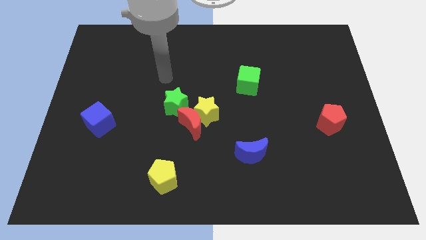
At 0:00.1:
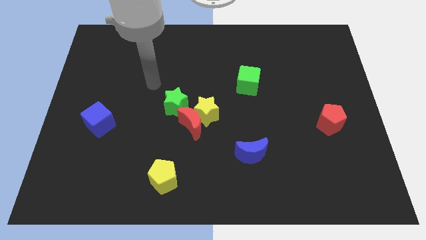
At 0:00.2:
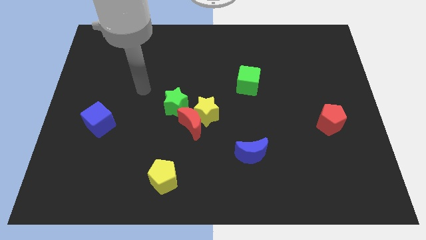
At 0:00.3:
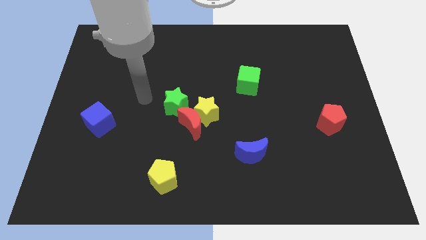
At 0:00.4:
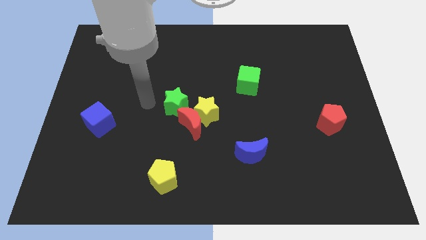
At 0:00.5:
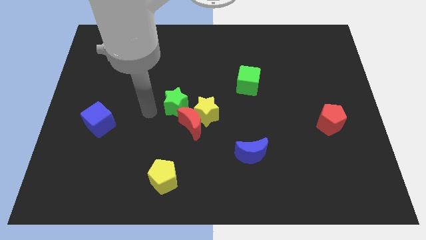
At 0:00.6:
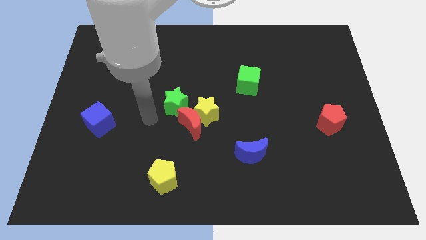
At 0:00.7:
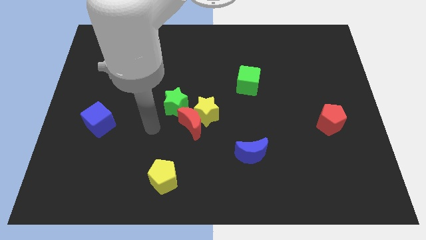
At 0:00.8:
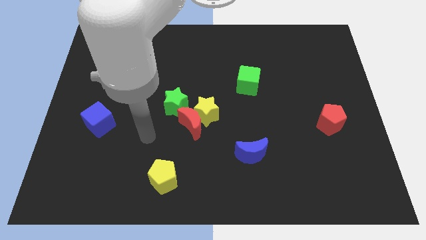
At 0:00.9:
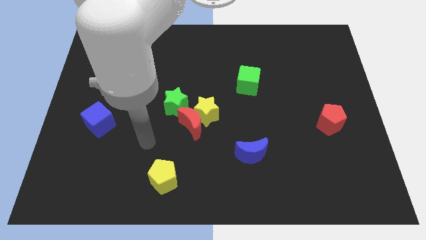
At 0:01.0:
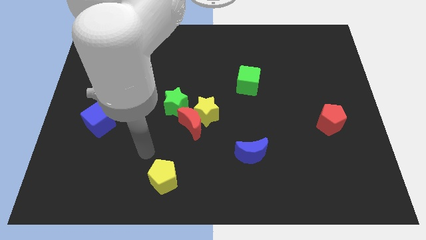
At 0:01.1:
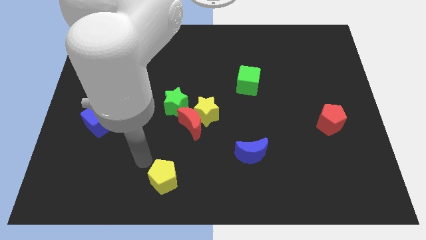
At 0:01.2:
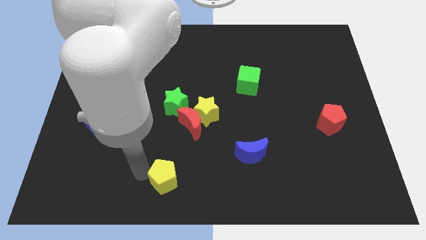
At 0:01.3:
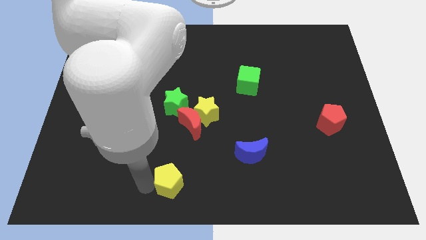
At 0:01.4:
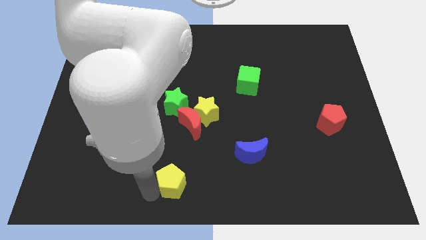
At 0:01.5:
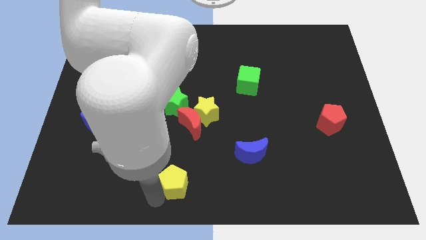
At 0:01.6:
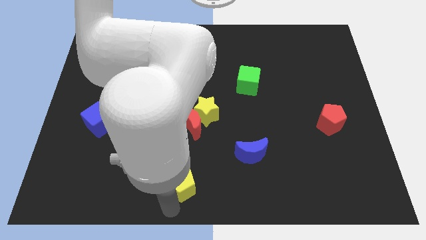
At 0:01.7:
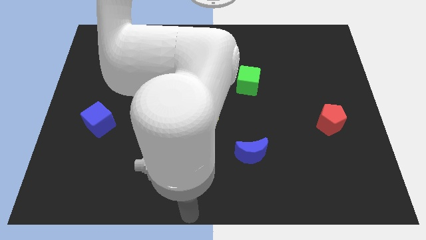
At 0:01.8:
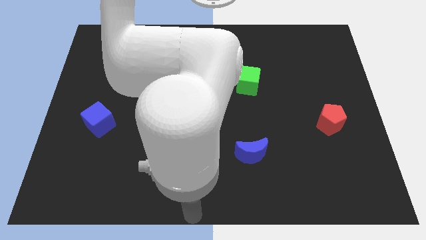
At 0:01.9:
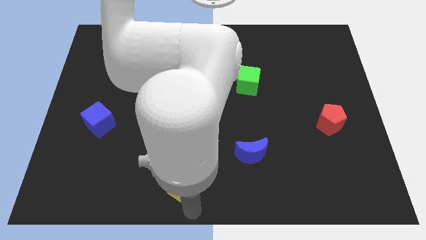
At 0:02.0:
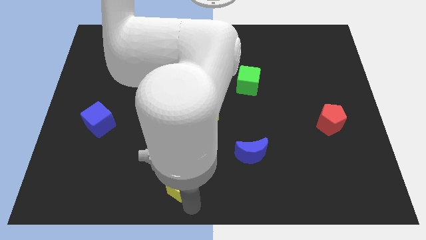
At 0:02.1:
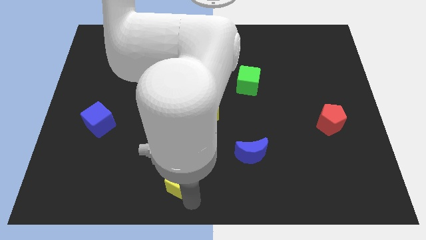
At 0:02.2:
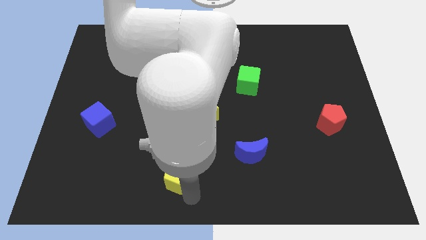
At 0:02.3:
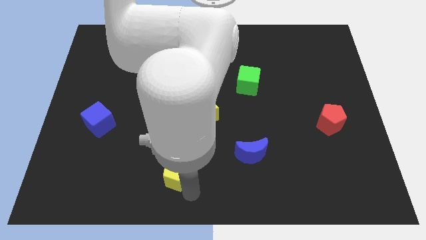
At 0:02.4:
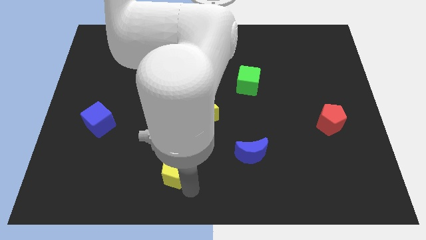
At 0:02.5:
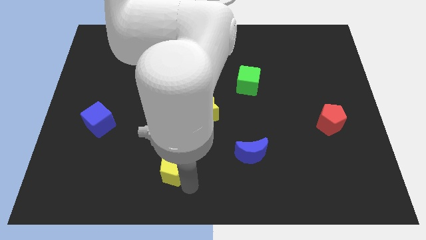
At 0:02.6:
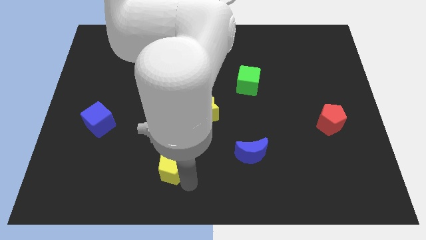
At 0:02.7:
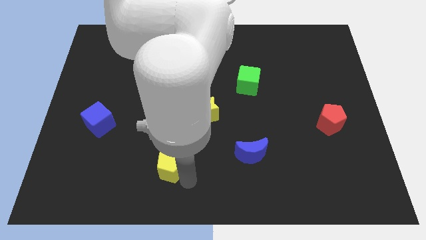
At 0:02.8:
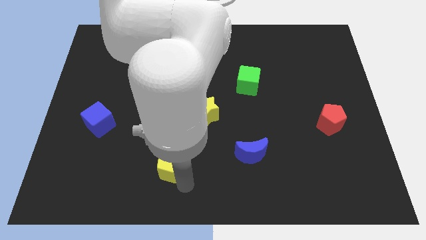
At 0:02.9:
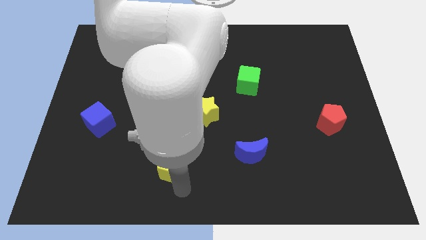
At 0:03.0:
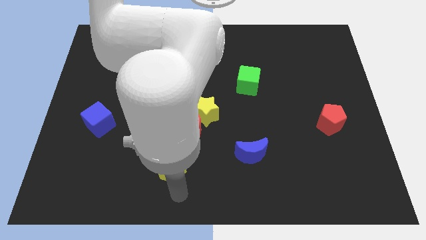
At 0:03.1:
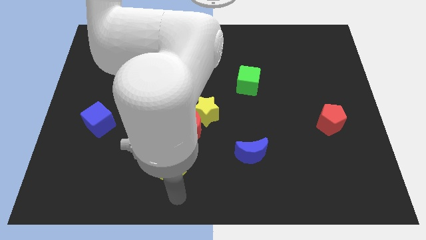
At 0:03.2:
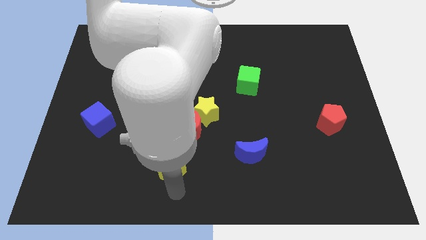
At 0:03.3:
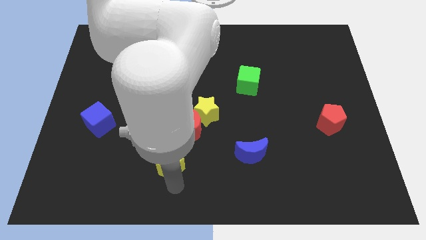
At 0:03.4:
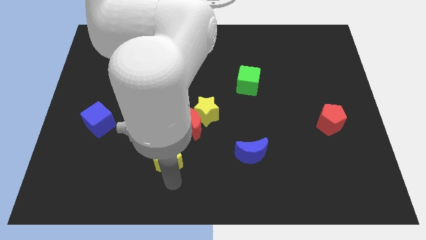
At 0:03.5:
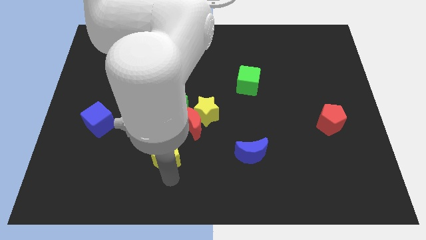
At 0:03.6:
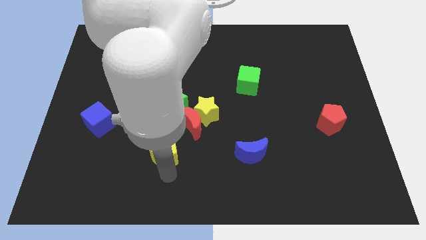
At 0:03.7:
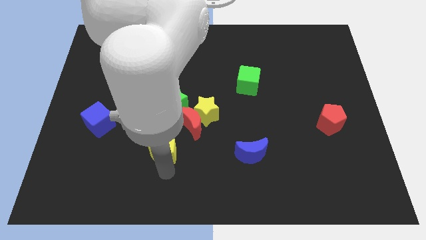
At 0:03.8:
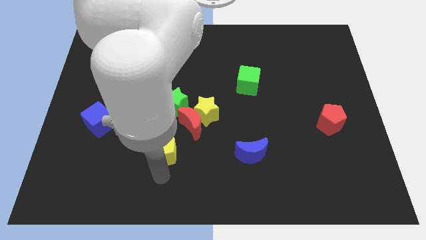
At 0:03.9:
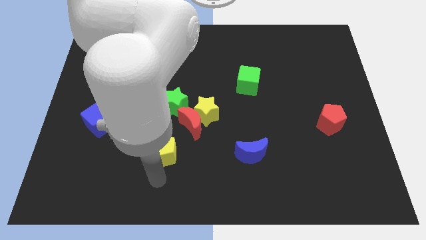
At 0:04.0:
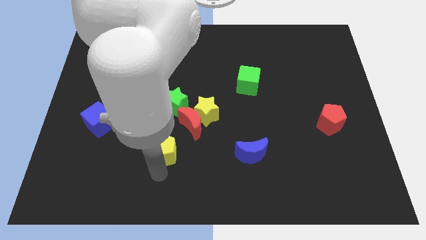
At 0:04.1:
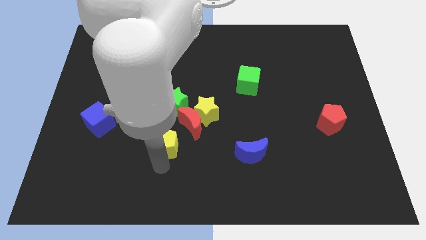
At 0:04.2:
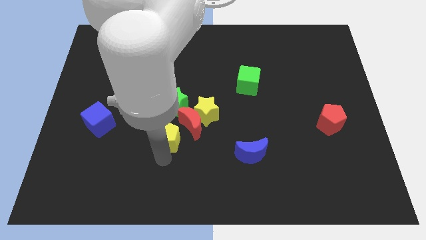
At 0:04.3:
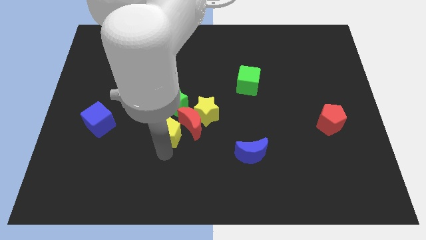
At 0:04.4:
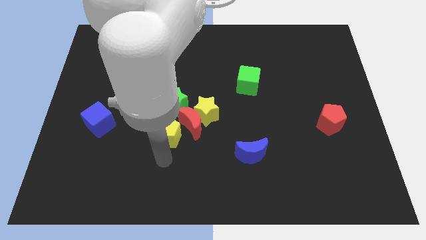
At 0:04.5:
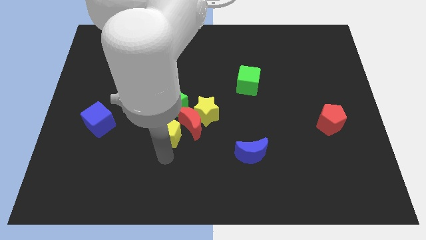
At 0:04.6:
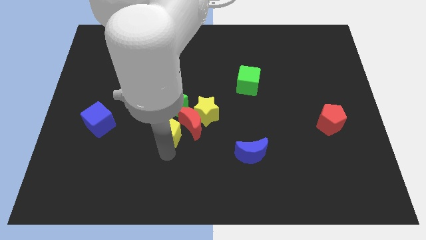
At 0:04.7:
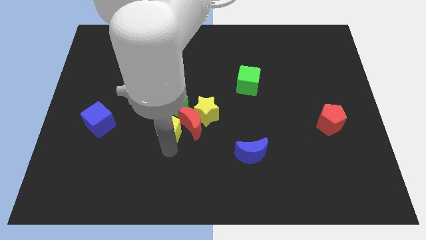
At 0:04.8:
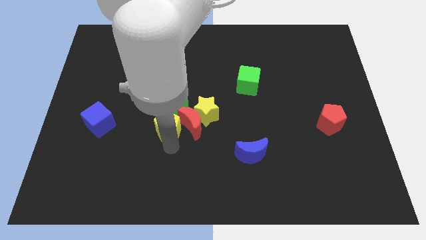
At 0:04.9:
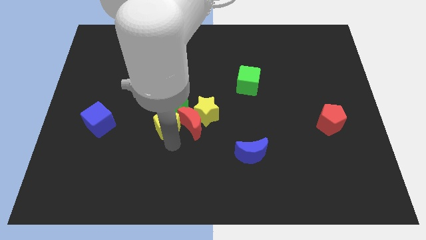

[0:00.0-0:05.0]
push the yellow pentagon towards the green star

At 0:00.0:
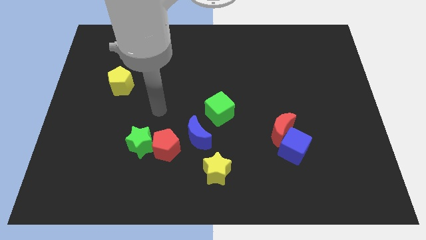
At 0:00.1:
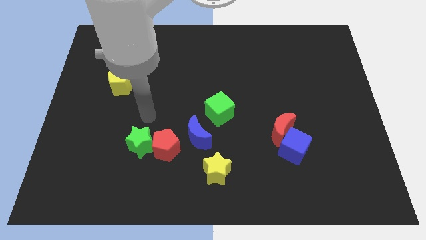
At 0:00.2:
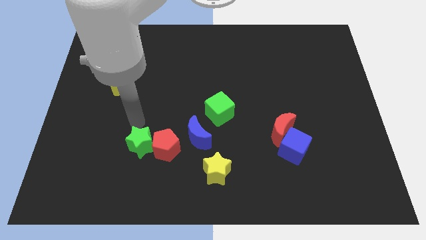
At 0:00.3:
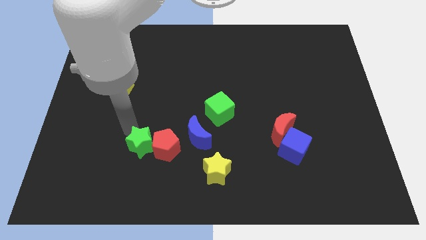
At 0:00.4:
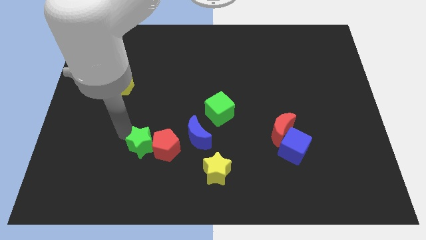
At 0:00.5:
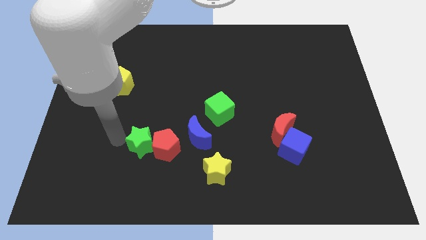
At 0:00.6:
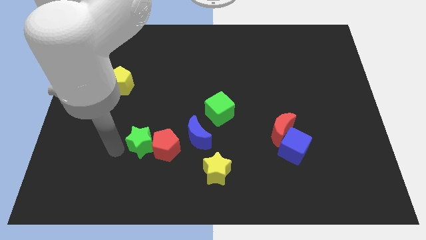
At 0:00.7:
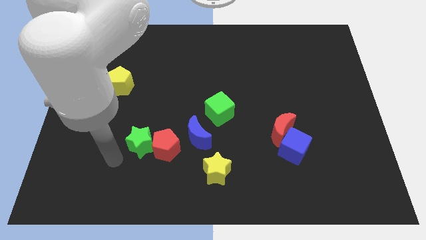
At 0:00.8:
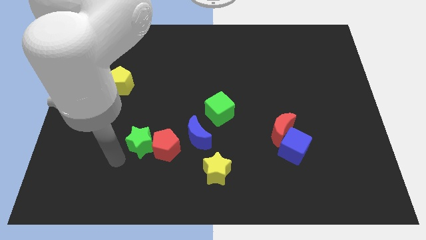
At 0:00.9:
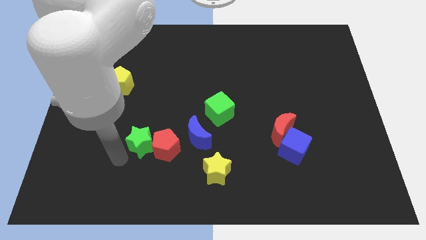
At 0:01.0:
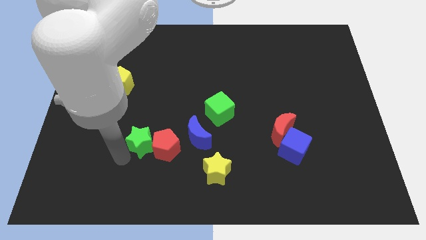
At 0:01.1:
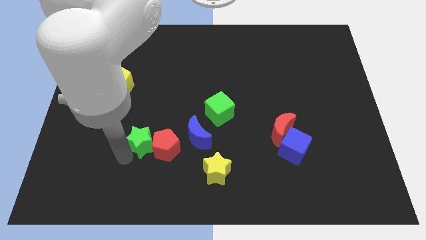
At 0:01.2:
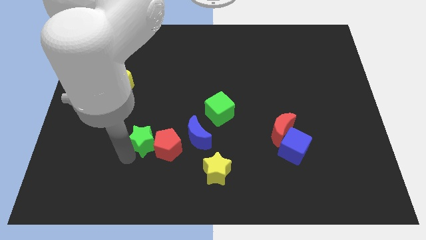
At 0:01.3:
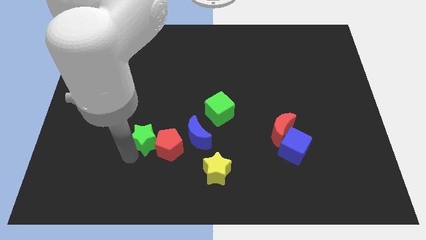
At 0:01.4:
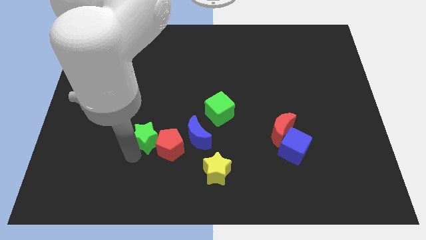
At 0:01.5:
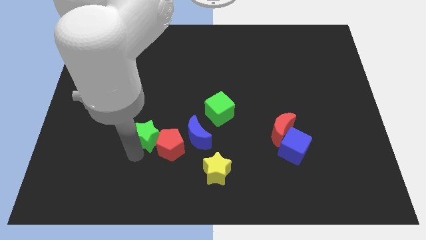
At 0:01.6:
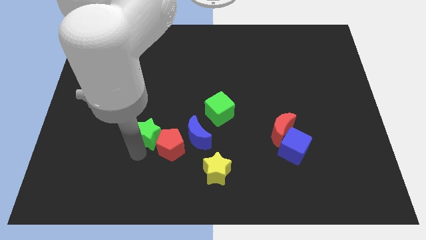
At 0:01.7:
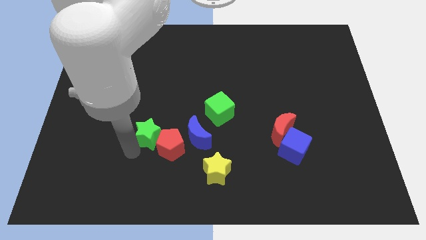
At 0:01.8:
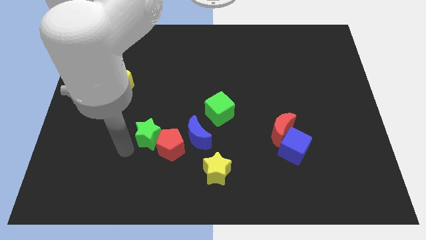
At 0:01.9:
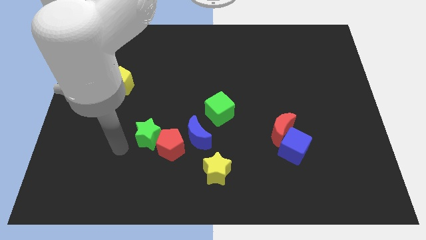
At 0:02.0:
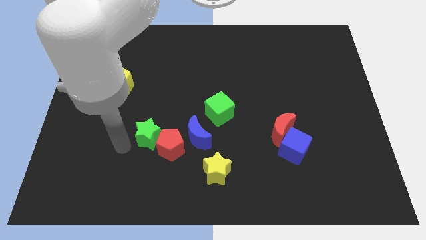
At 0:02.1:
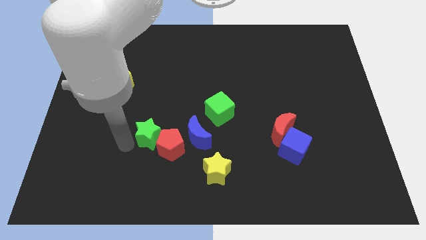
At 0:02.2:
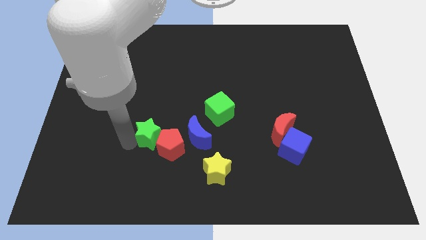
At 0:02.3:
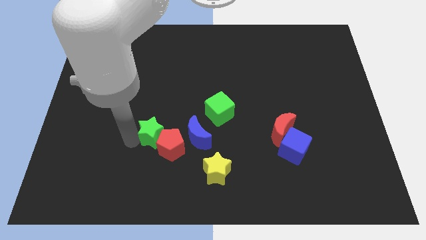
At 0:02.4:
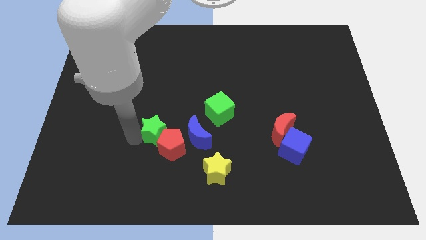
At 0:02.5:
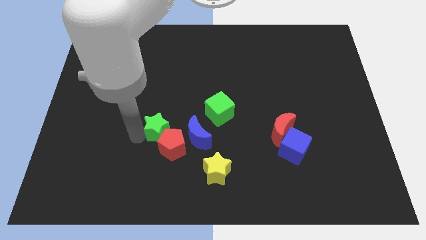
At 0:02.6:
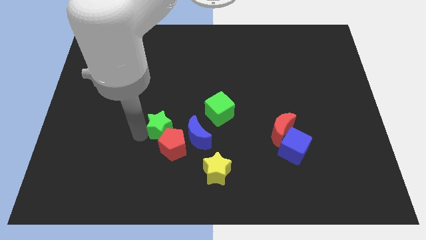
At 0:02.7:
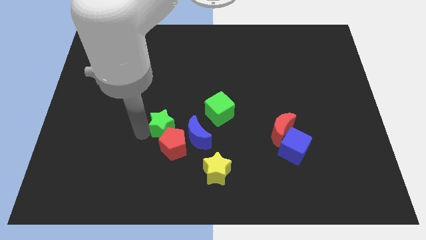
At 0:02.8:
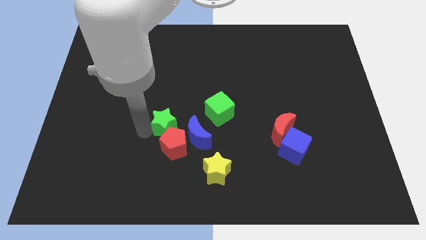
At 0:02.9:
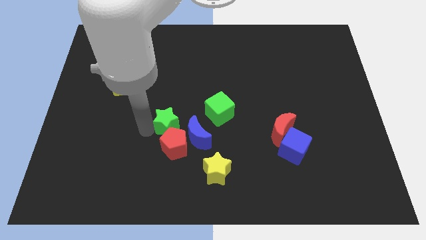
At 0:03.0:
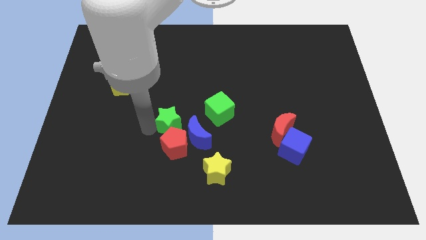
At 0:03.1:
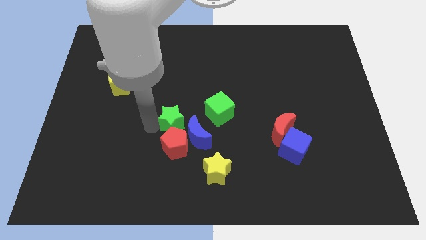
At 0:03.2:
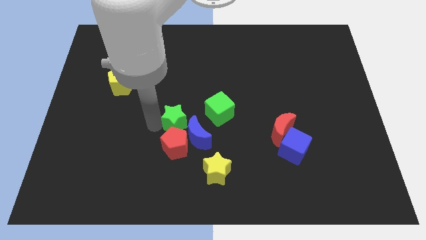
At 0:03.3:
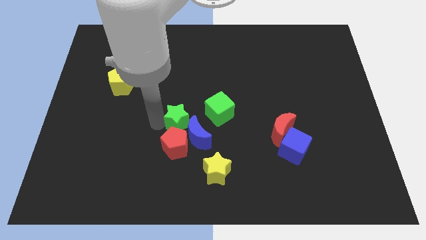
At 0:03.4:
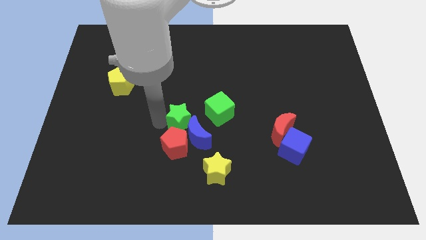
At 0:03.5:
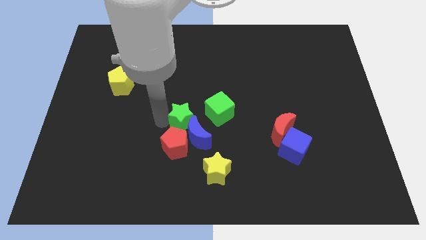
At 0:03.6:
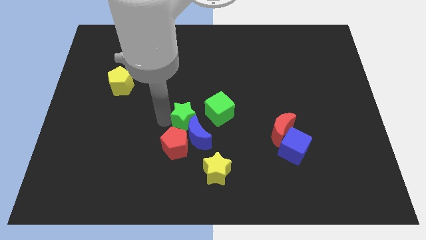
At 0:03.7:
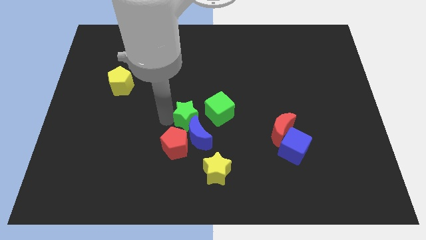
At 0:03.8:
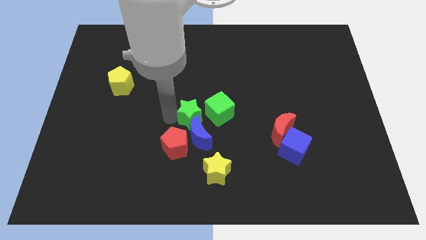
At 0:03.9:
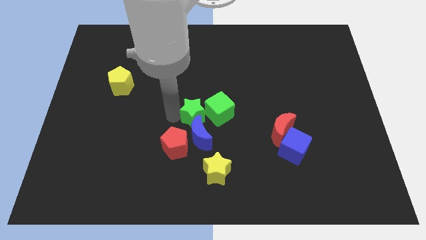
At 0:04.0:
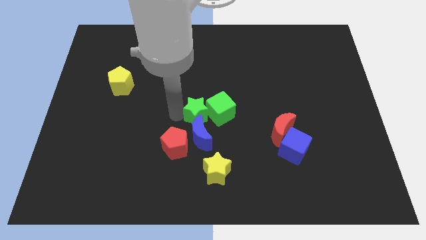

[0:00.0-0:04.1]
move the green star close to the green cube
